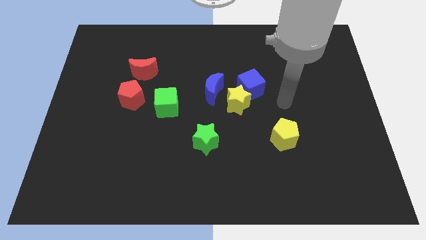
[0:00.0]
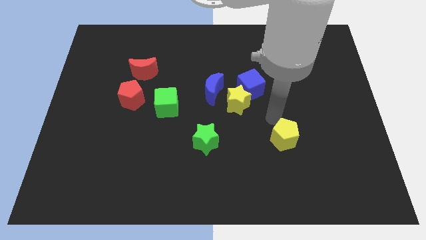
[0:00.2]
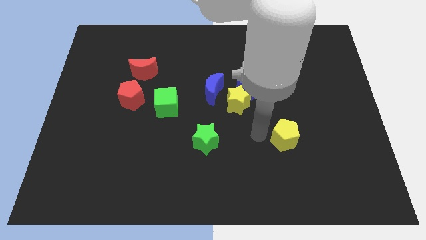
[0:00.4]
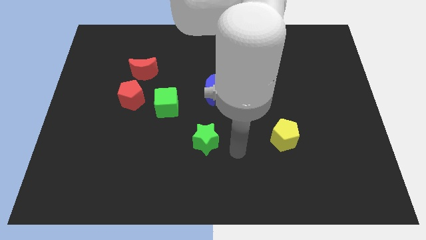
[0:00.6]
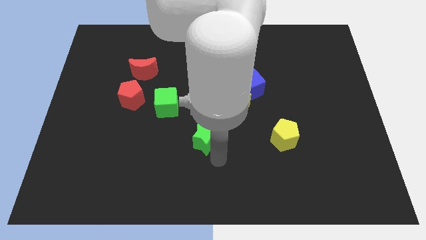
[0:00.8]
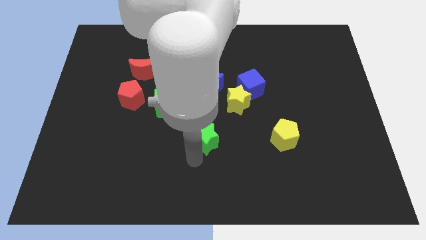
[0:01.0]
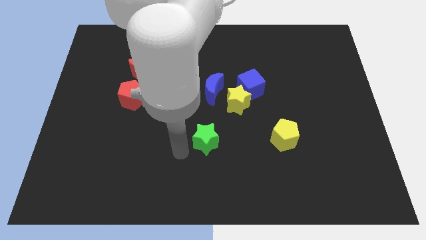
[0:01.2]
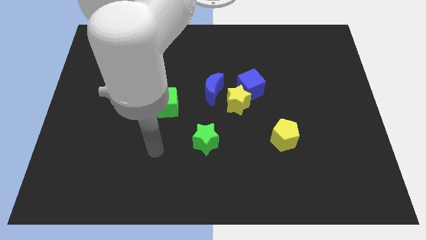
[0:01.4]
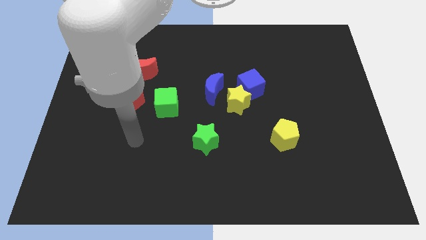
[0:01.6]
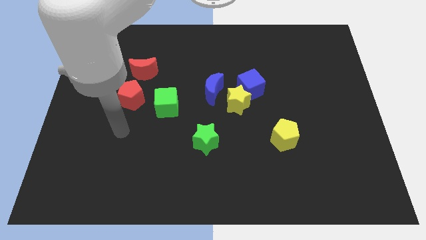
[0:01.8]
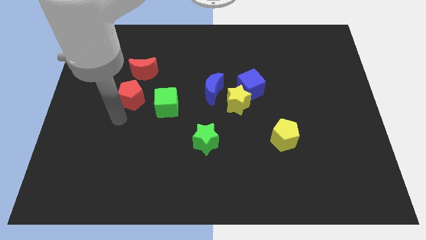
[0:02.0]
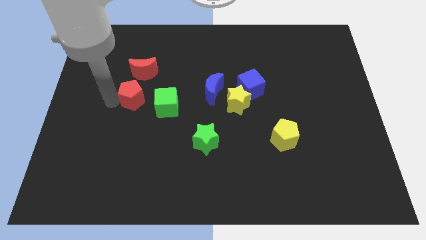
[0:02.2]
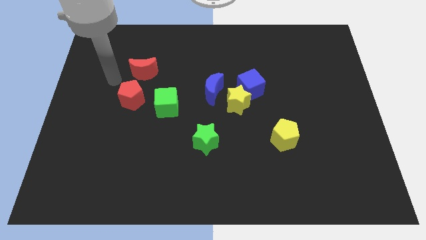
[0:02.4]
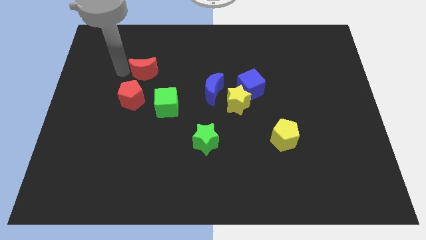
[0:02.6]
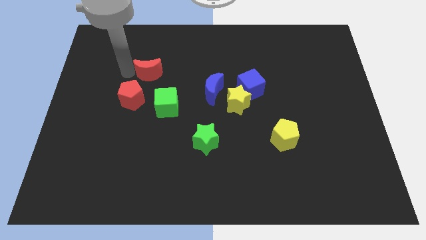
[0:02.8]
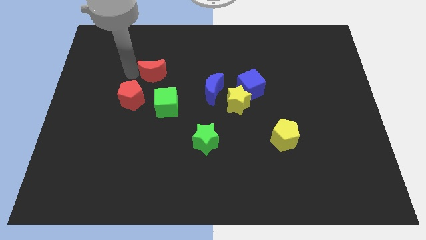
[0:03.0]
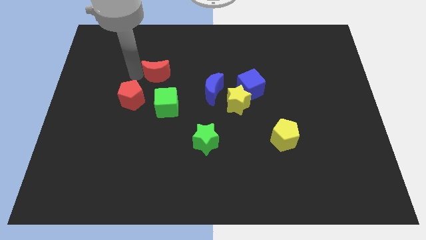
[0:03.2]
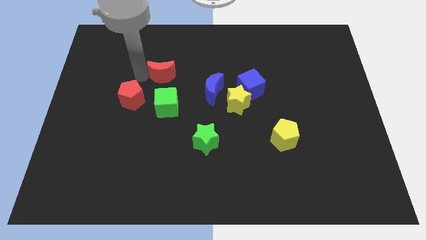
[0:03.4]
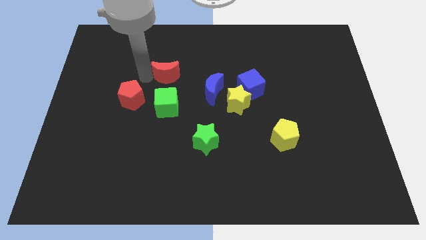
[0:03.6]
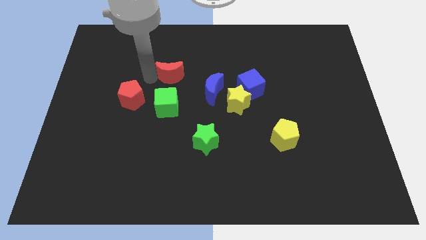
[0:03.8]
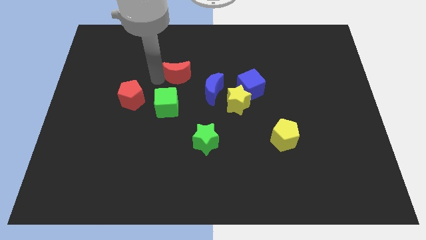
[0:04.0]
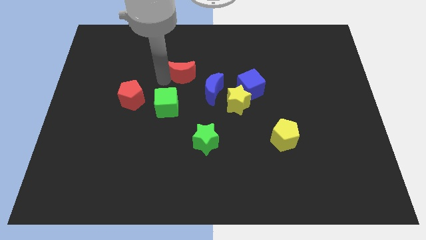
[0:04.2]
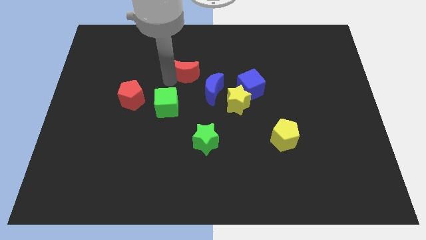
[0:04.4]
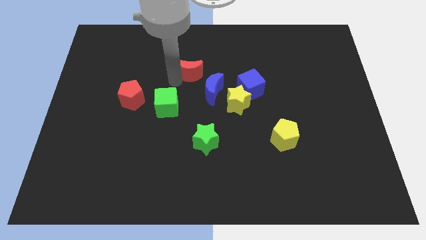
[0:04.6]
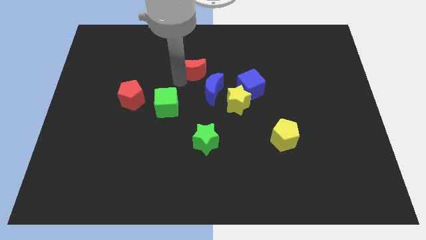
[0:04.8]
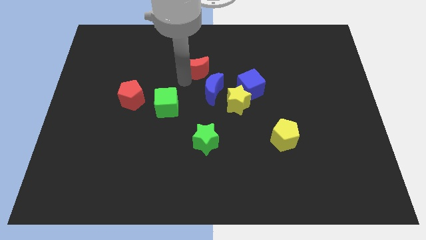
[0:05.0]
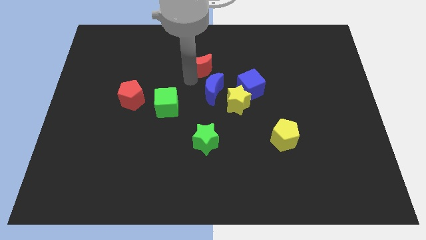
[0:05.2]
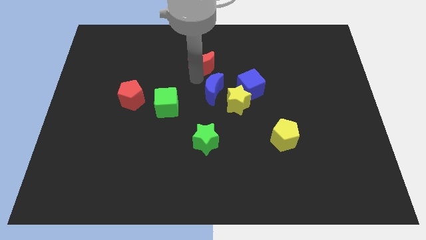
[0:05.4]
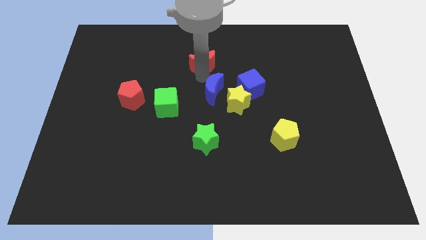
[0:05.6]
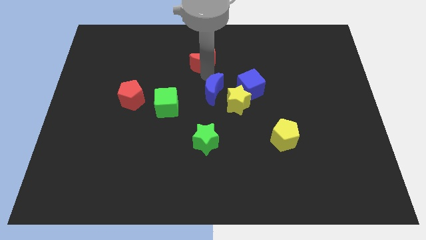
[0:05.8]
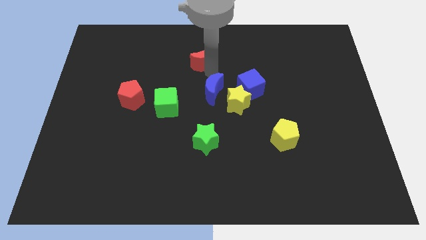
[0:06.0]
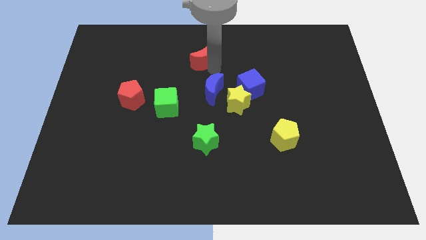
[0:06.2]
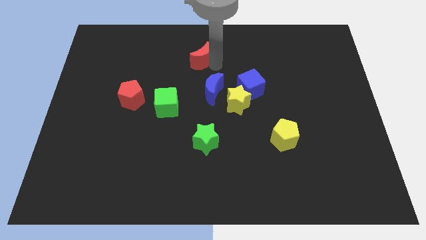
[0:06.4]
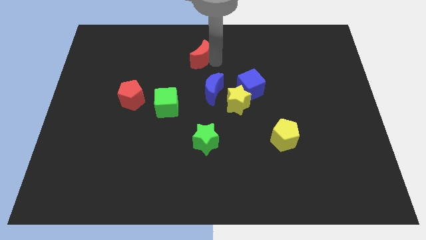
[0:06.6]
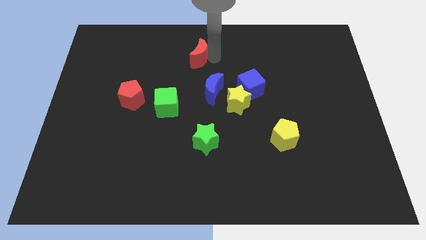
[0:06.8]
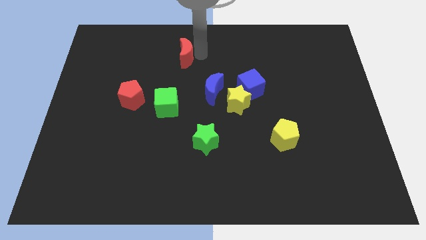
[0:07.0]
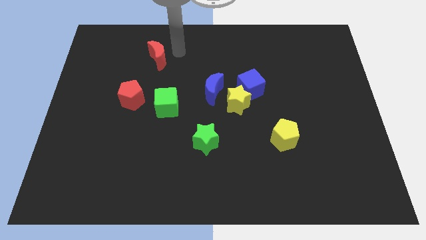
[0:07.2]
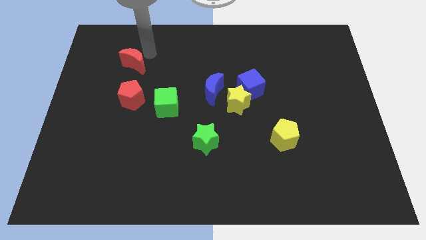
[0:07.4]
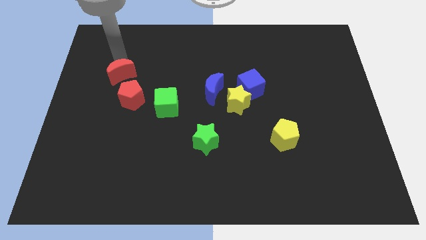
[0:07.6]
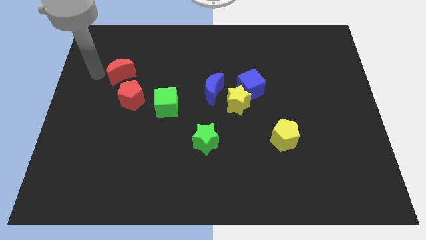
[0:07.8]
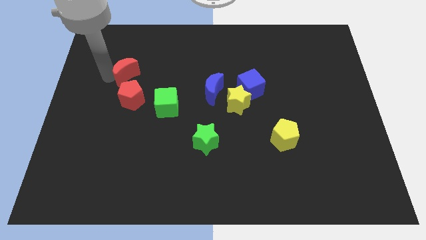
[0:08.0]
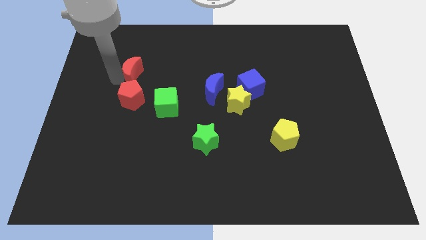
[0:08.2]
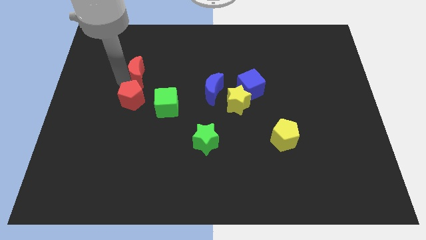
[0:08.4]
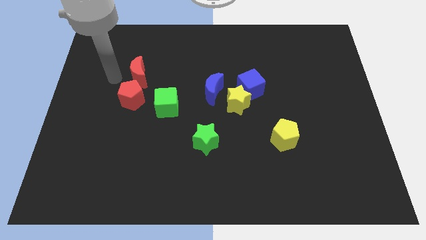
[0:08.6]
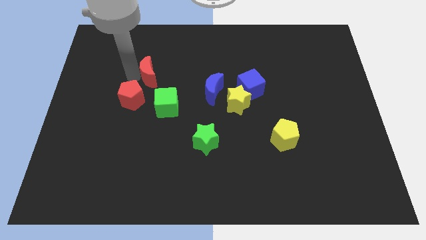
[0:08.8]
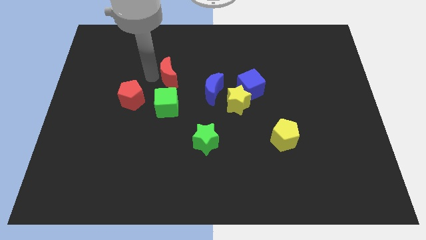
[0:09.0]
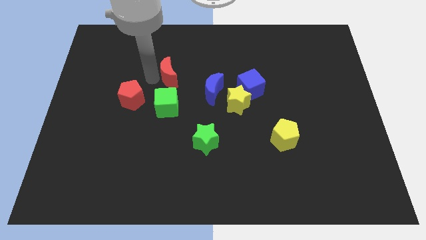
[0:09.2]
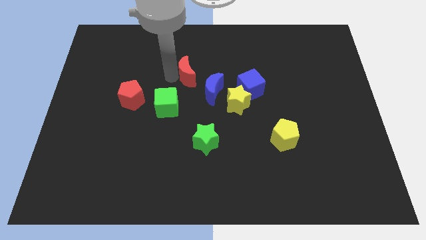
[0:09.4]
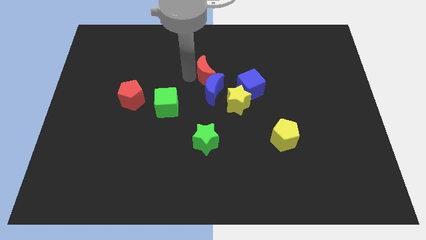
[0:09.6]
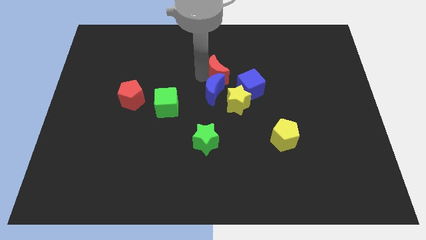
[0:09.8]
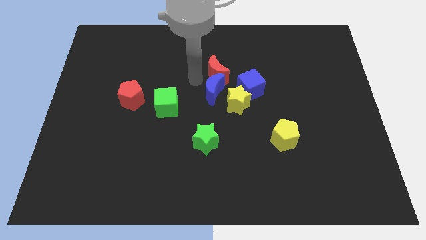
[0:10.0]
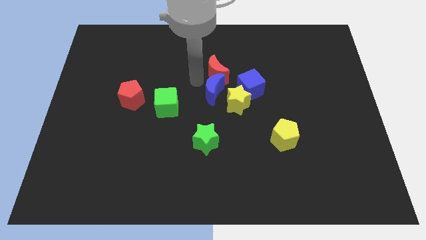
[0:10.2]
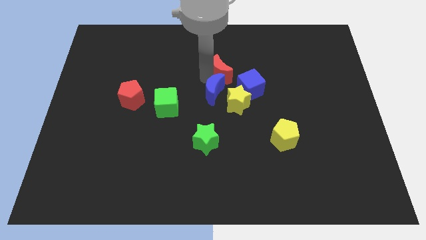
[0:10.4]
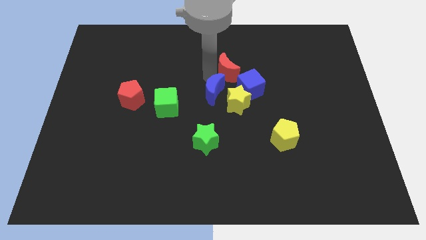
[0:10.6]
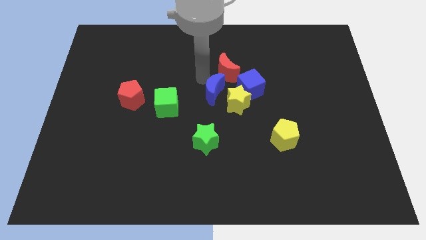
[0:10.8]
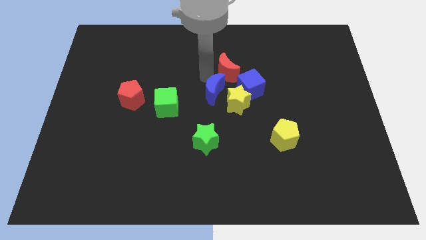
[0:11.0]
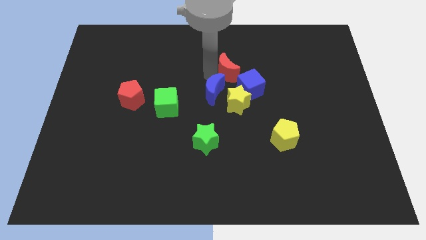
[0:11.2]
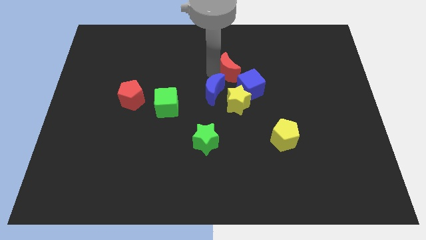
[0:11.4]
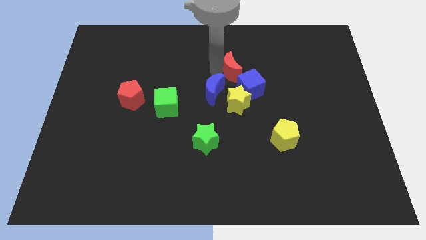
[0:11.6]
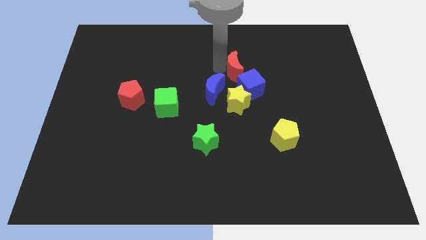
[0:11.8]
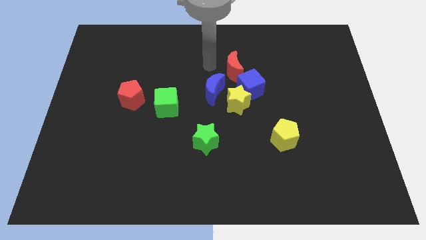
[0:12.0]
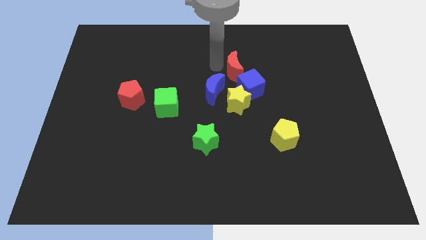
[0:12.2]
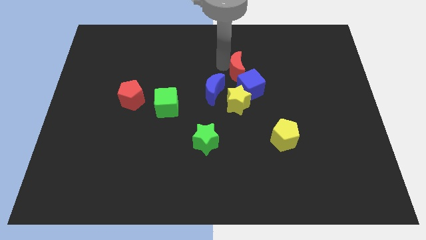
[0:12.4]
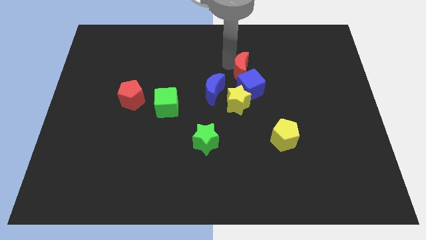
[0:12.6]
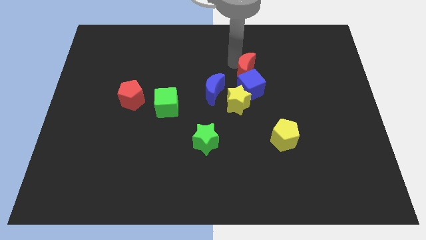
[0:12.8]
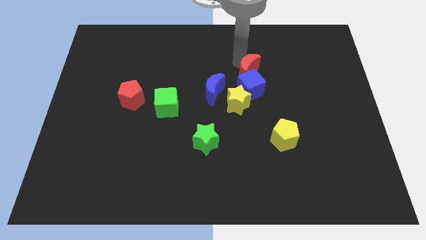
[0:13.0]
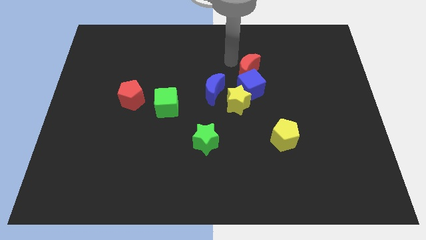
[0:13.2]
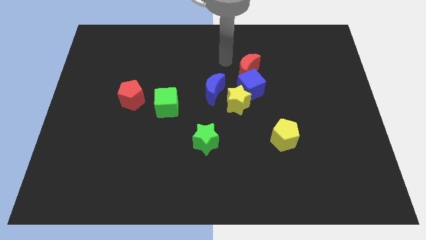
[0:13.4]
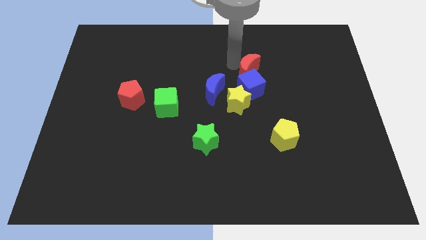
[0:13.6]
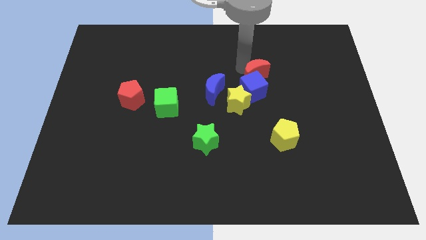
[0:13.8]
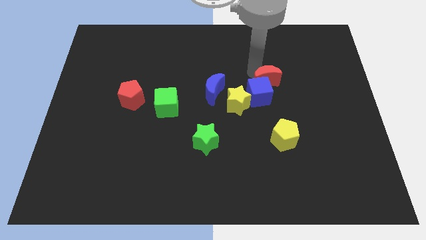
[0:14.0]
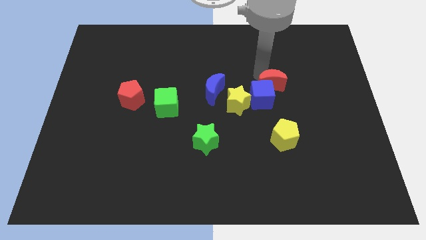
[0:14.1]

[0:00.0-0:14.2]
put the red moon to the top of the yellow pentagon

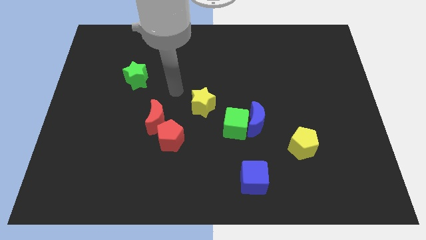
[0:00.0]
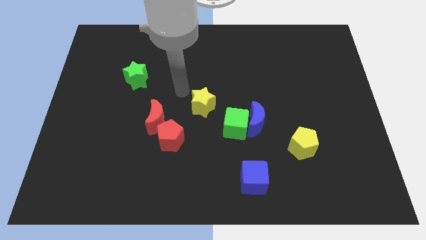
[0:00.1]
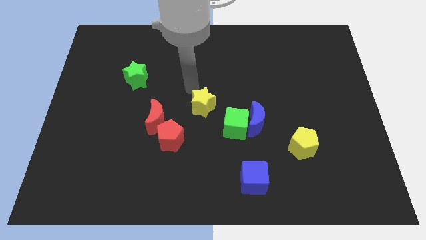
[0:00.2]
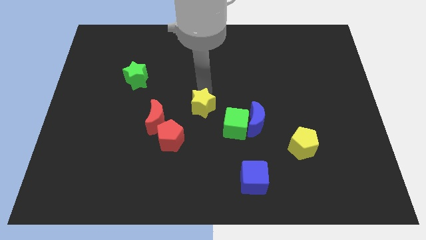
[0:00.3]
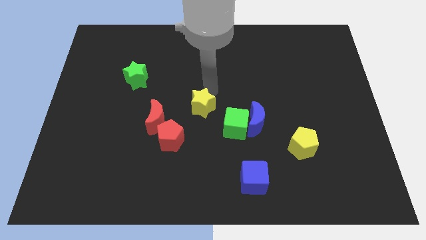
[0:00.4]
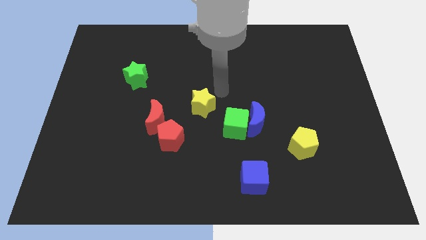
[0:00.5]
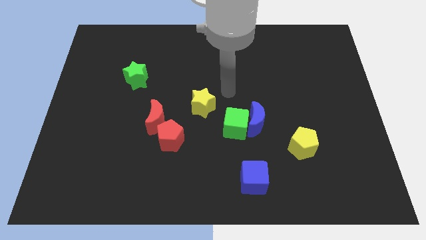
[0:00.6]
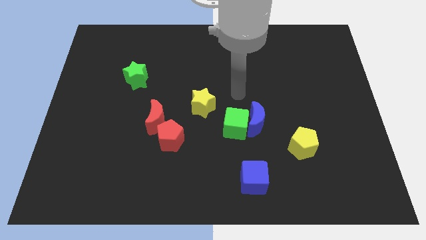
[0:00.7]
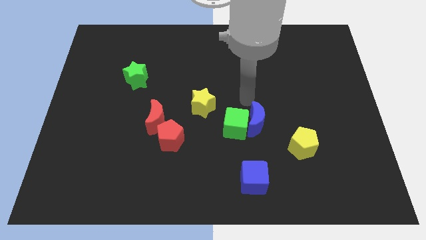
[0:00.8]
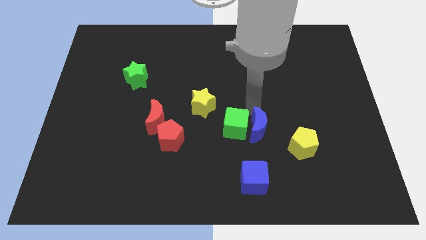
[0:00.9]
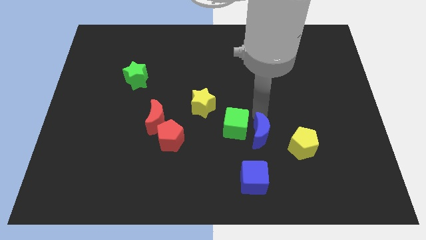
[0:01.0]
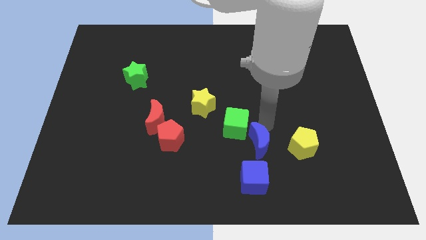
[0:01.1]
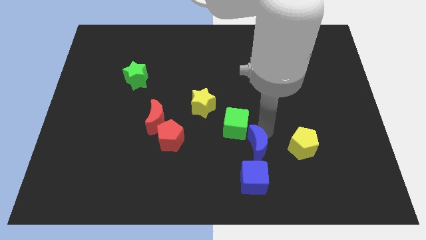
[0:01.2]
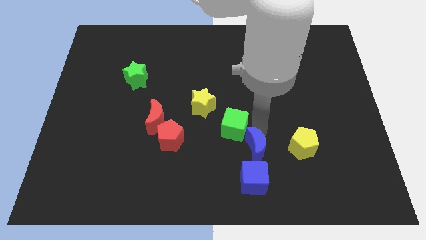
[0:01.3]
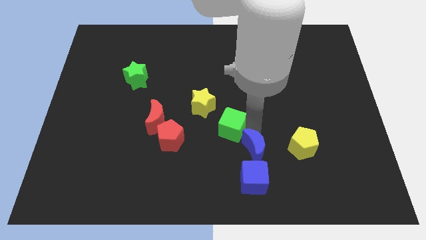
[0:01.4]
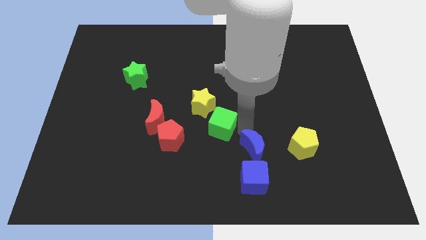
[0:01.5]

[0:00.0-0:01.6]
move the green cube right of the red moon
